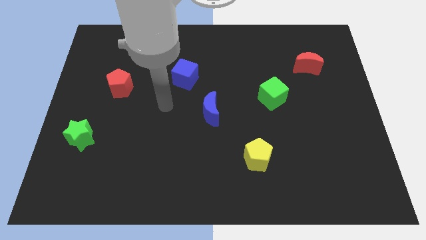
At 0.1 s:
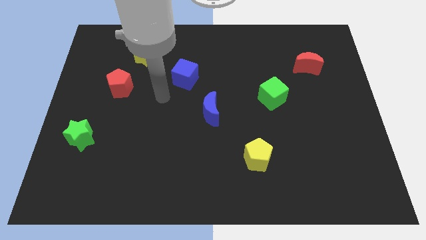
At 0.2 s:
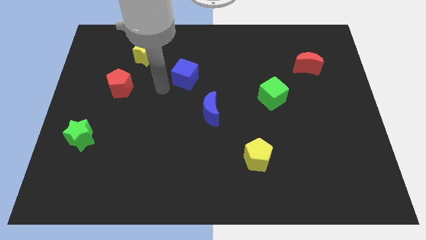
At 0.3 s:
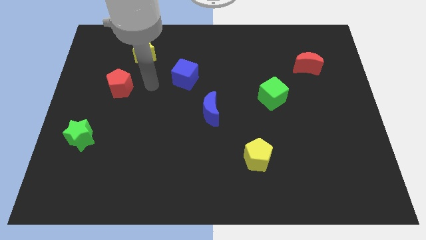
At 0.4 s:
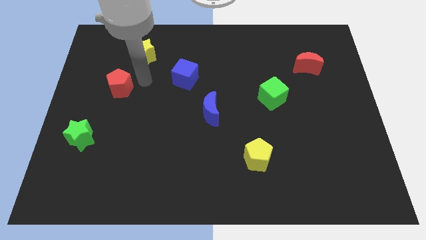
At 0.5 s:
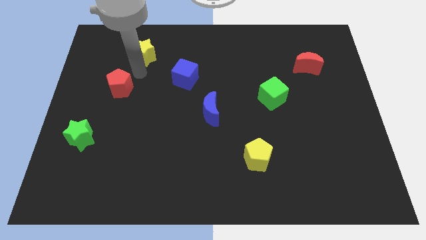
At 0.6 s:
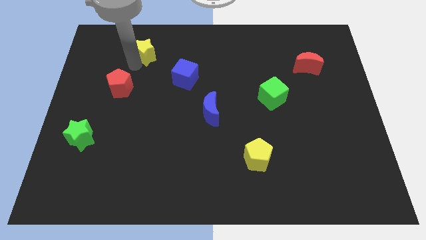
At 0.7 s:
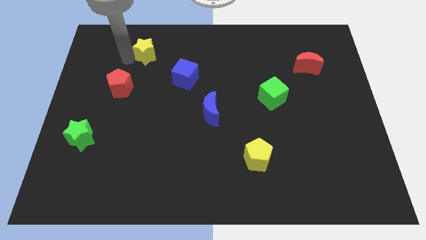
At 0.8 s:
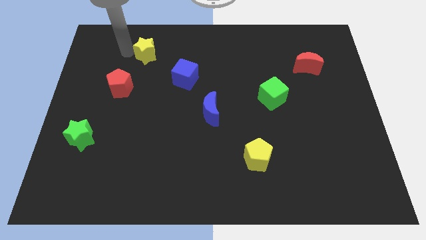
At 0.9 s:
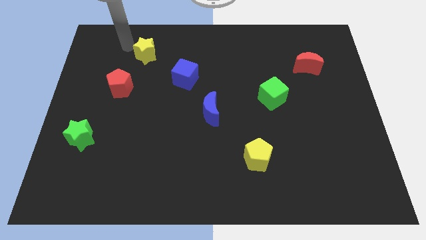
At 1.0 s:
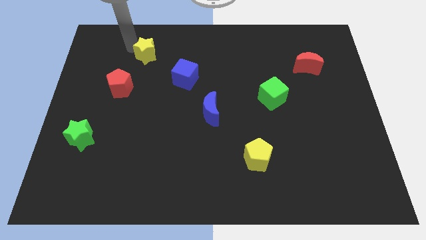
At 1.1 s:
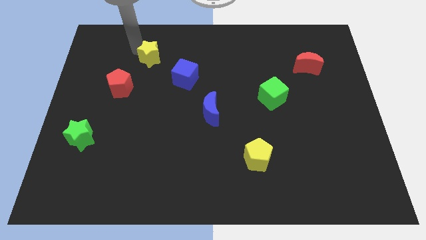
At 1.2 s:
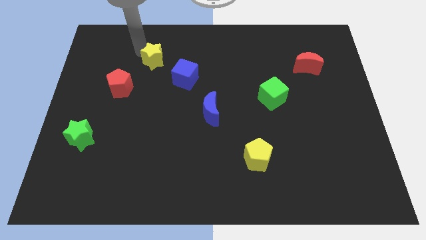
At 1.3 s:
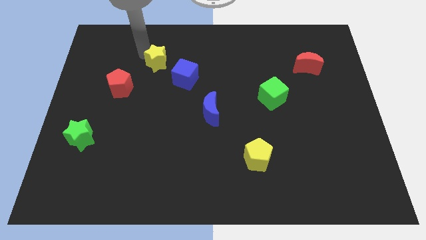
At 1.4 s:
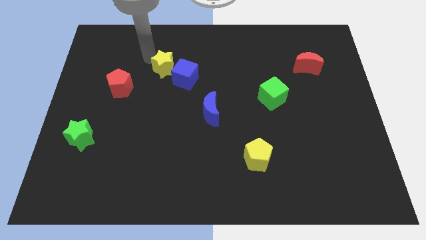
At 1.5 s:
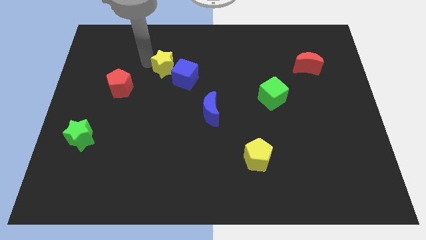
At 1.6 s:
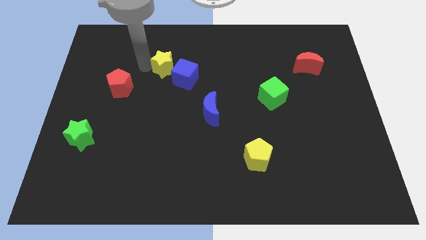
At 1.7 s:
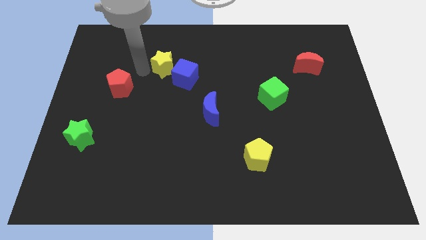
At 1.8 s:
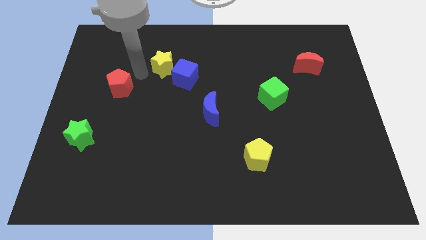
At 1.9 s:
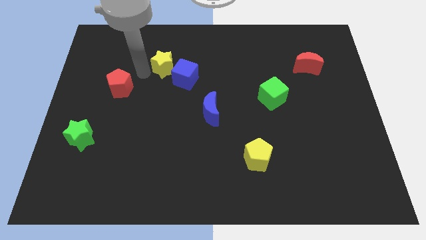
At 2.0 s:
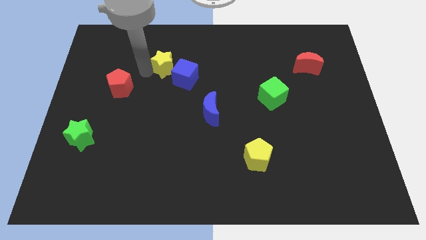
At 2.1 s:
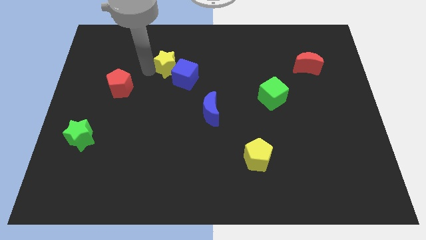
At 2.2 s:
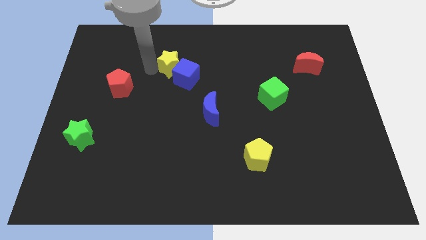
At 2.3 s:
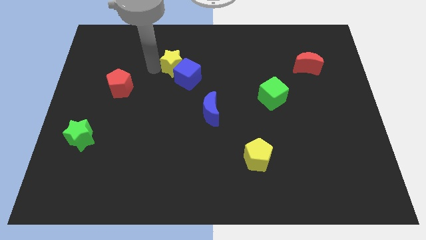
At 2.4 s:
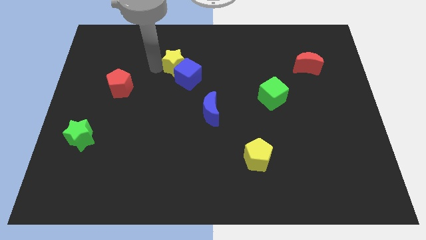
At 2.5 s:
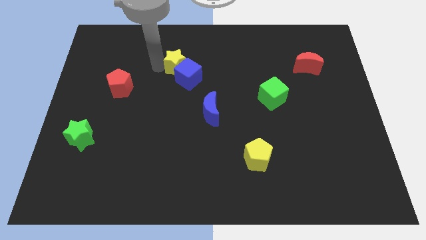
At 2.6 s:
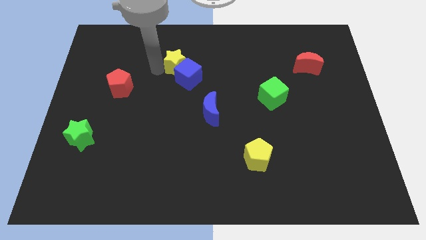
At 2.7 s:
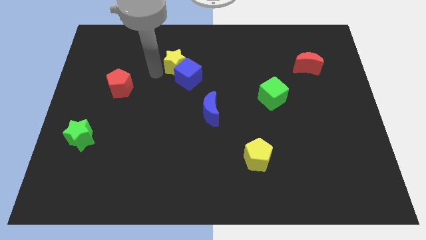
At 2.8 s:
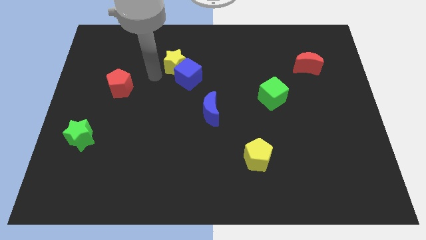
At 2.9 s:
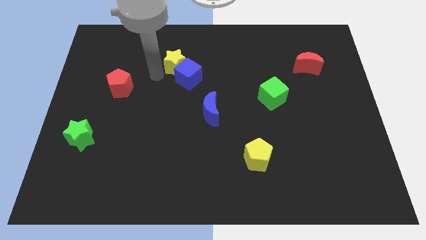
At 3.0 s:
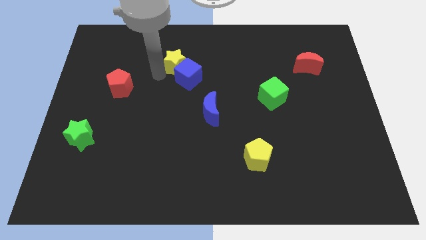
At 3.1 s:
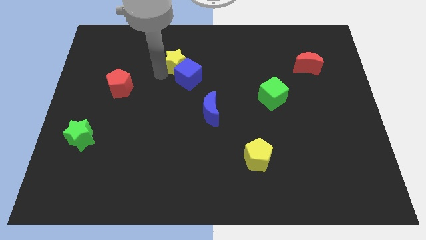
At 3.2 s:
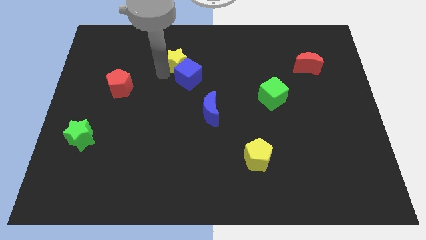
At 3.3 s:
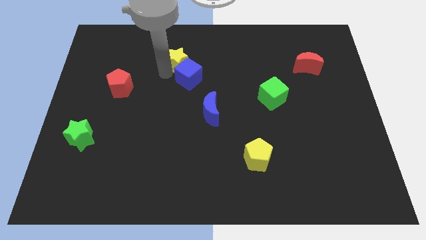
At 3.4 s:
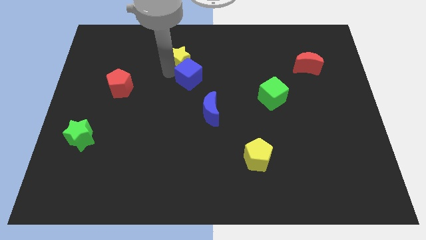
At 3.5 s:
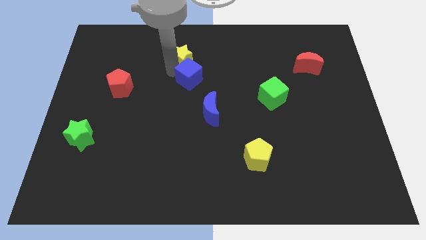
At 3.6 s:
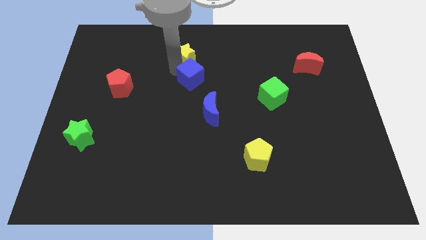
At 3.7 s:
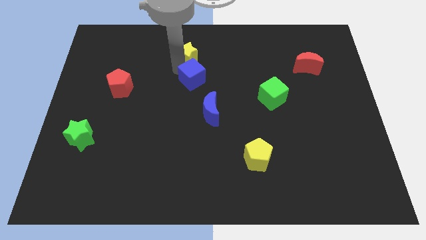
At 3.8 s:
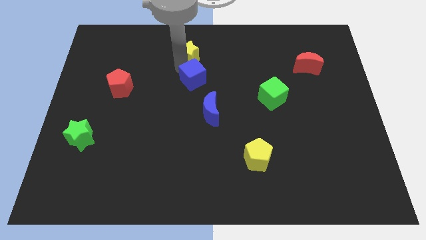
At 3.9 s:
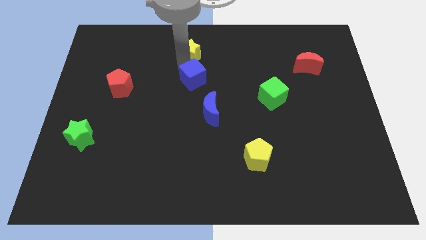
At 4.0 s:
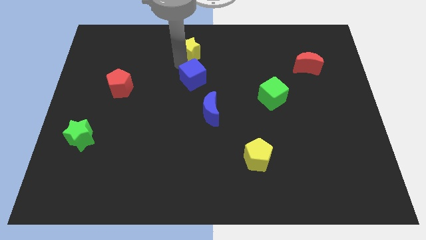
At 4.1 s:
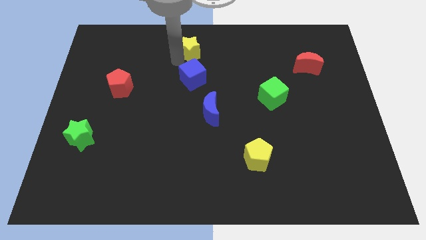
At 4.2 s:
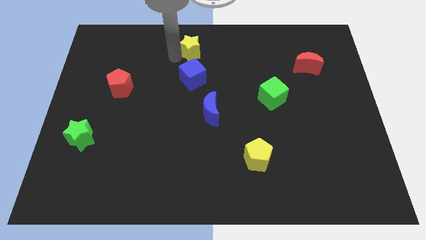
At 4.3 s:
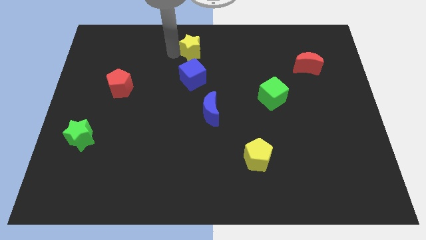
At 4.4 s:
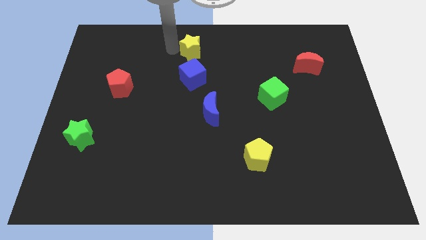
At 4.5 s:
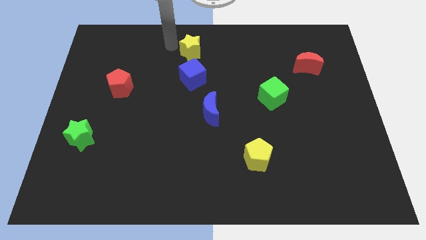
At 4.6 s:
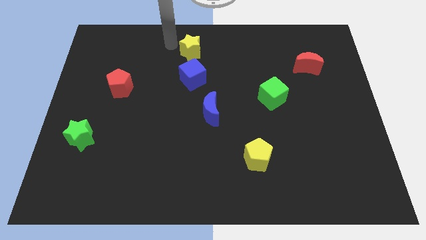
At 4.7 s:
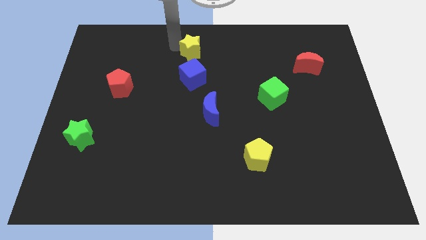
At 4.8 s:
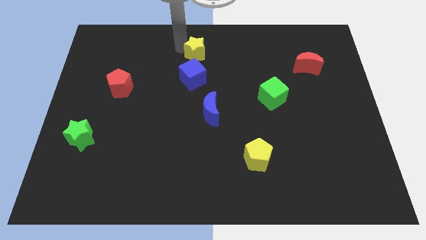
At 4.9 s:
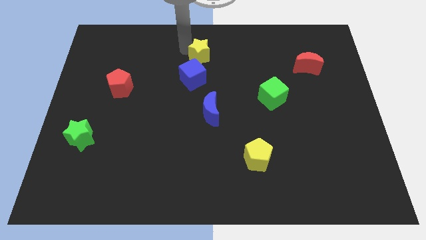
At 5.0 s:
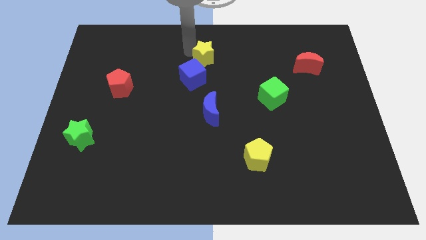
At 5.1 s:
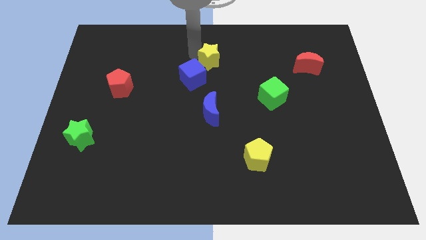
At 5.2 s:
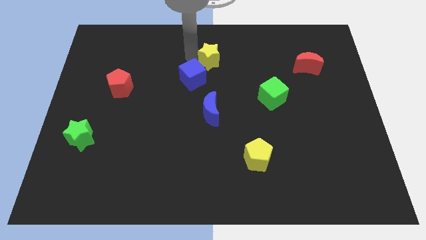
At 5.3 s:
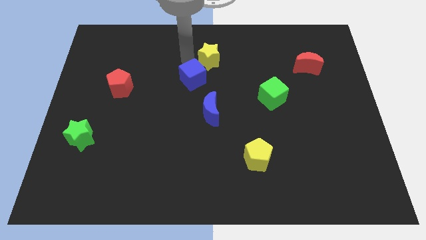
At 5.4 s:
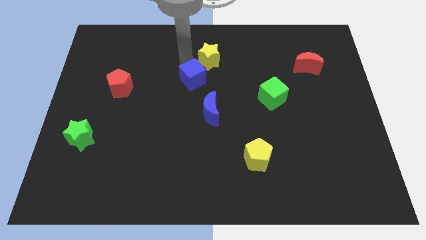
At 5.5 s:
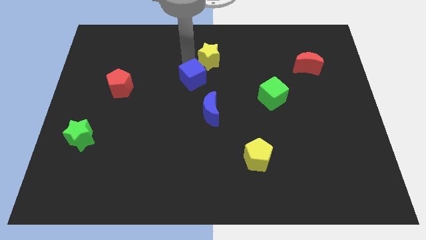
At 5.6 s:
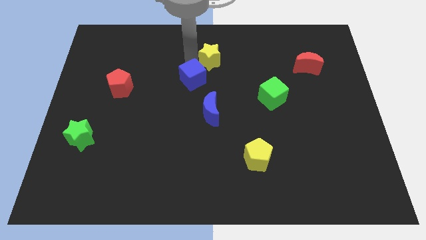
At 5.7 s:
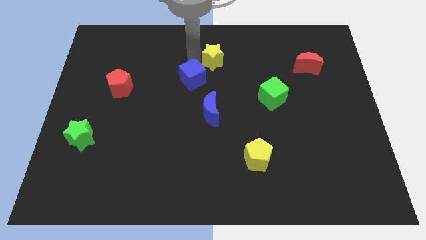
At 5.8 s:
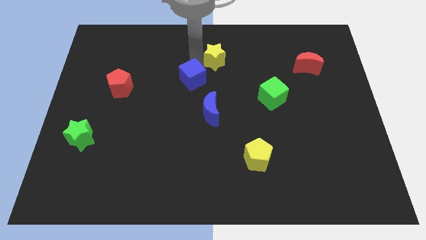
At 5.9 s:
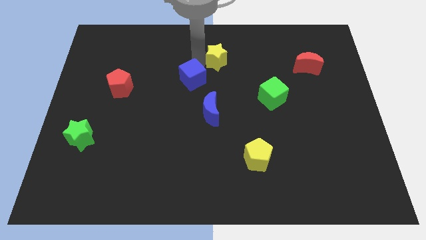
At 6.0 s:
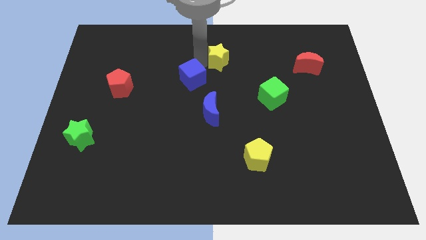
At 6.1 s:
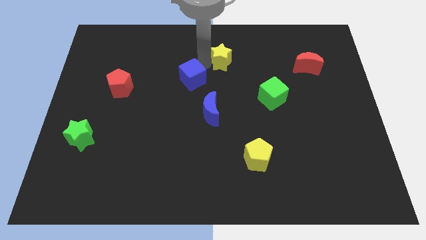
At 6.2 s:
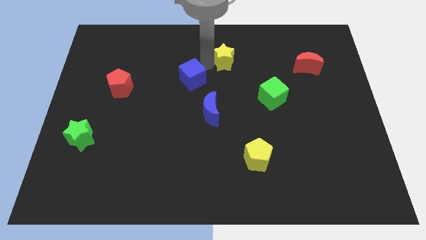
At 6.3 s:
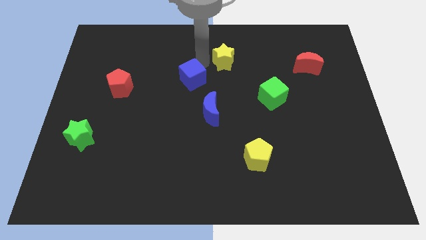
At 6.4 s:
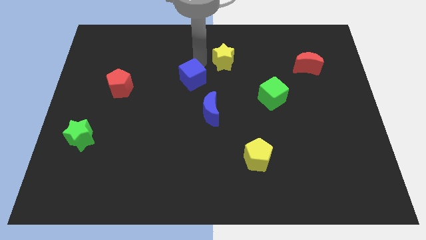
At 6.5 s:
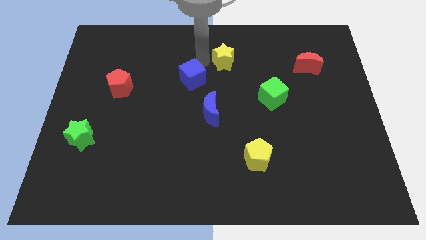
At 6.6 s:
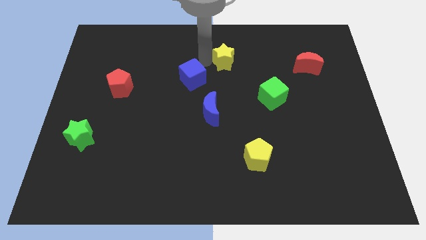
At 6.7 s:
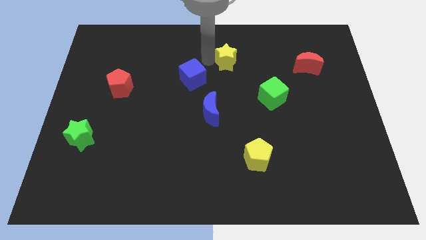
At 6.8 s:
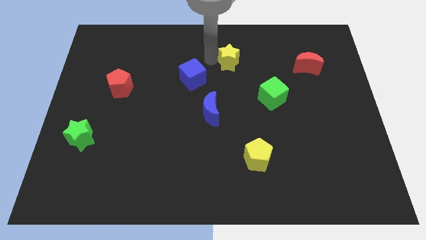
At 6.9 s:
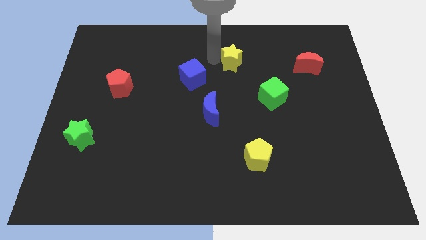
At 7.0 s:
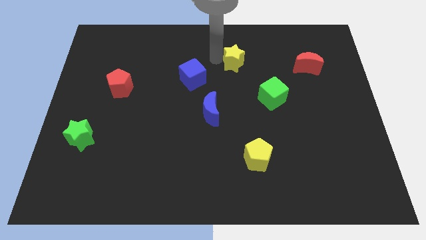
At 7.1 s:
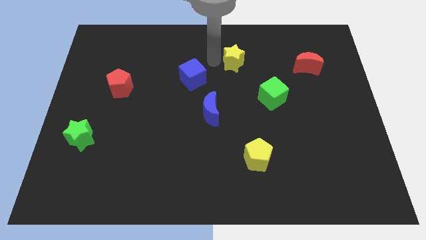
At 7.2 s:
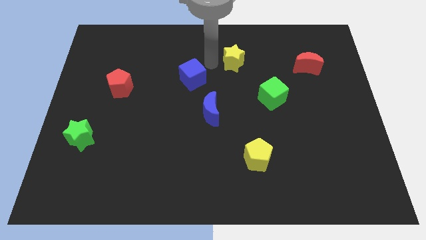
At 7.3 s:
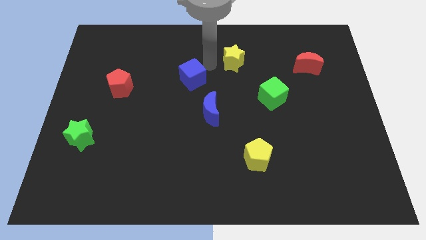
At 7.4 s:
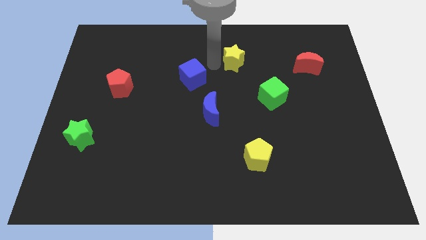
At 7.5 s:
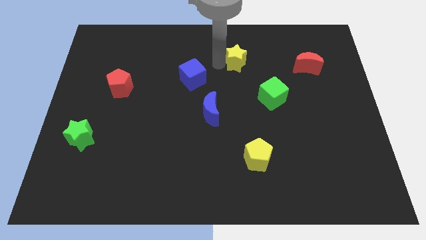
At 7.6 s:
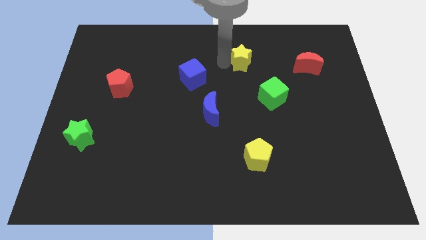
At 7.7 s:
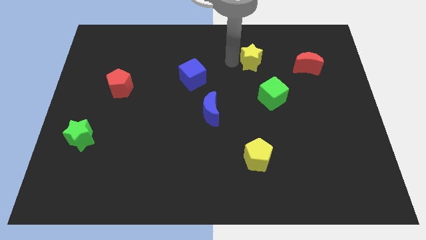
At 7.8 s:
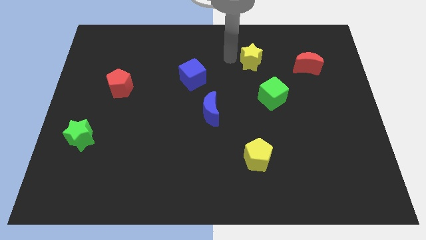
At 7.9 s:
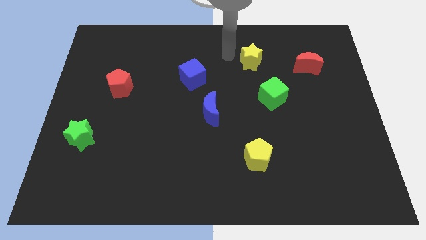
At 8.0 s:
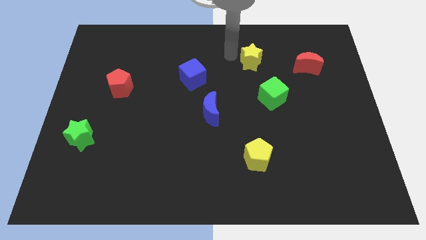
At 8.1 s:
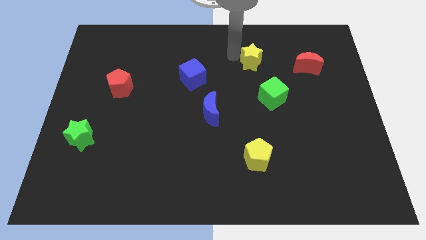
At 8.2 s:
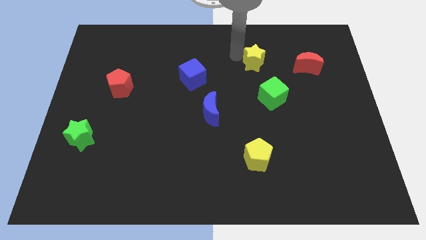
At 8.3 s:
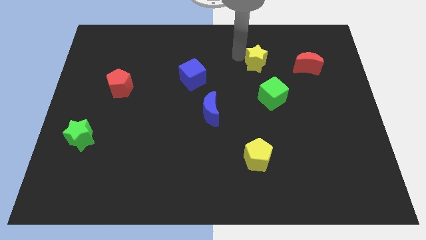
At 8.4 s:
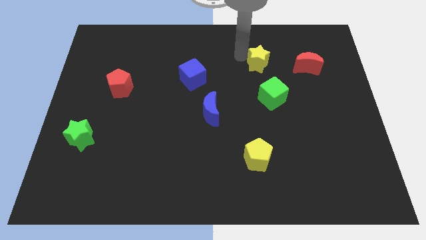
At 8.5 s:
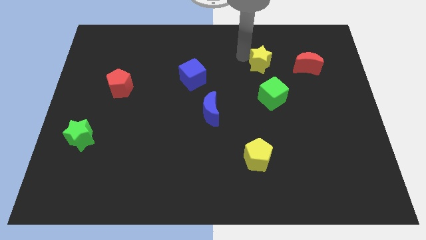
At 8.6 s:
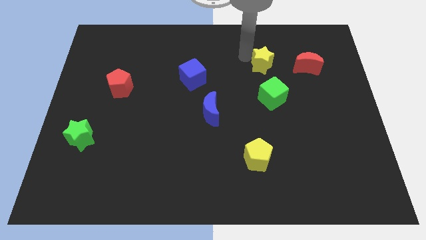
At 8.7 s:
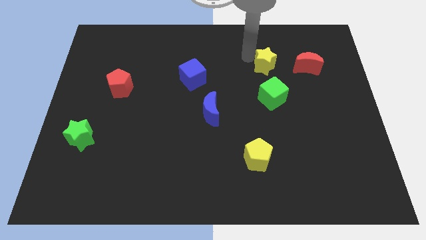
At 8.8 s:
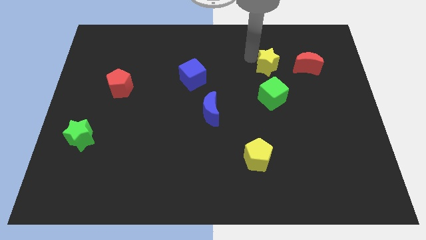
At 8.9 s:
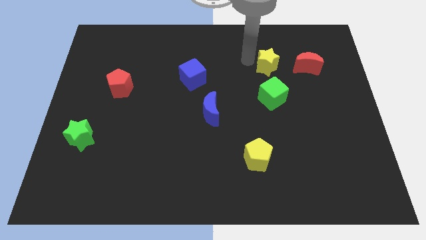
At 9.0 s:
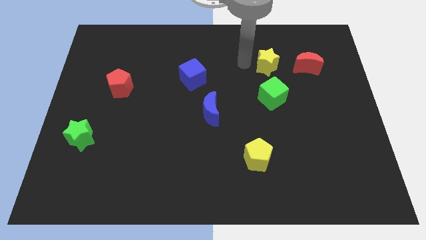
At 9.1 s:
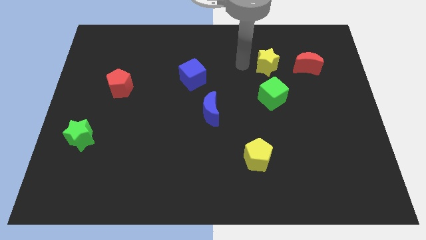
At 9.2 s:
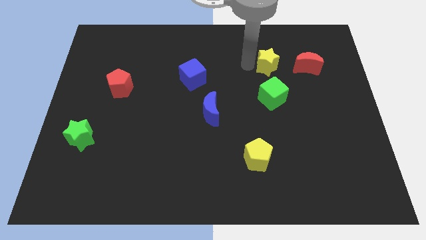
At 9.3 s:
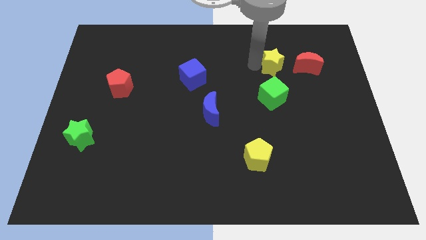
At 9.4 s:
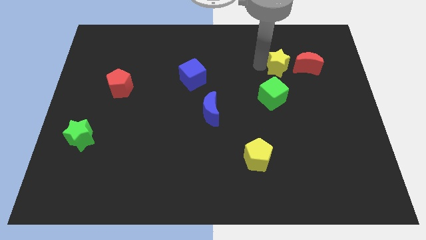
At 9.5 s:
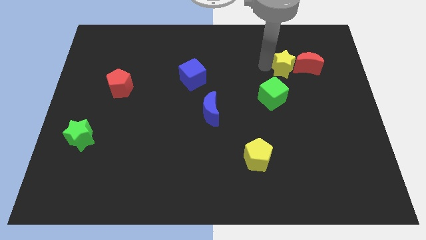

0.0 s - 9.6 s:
put the yellow star close to the red moon
